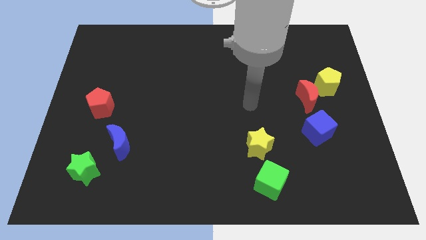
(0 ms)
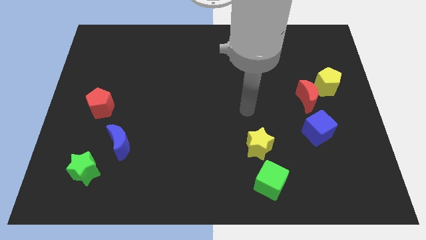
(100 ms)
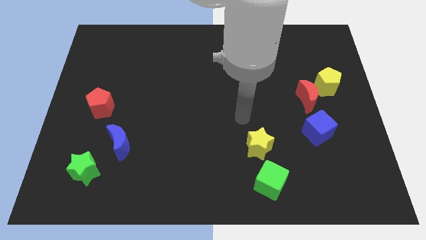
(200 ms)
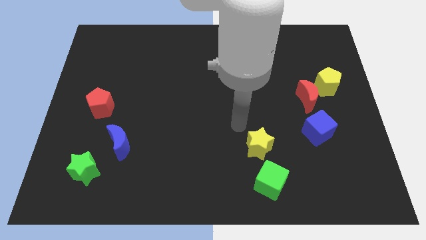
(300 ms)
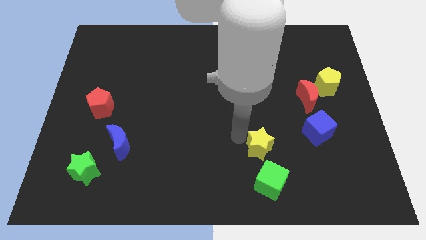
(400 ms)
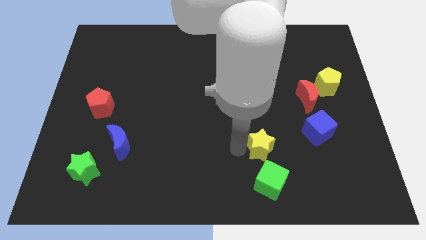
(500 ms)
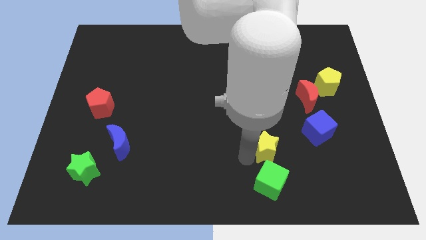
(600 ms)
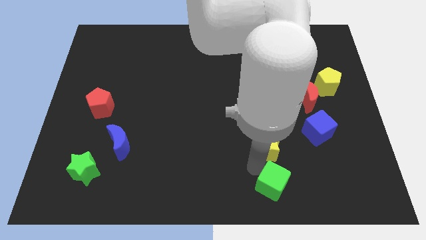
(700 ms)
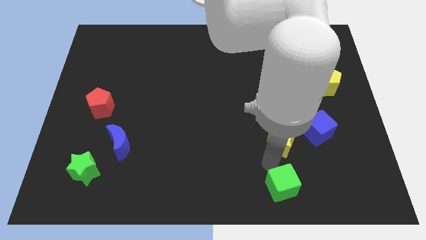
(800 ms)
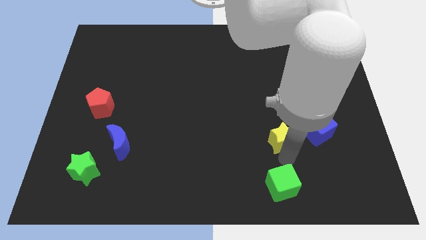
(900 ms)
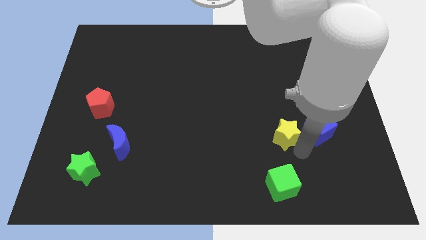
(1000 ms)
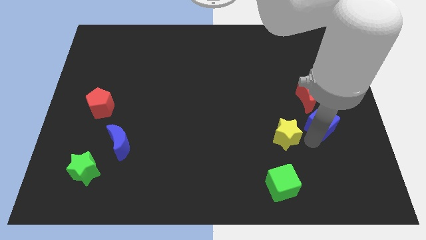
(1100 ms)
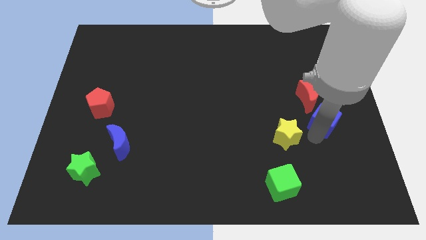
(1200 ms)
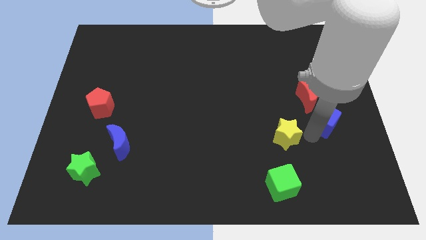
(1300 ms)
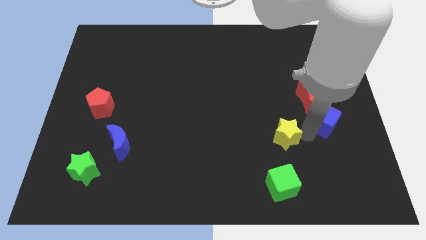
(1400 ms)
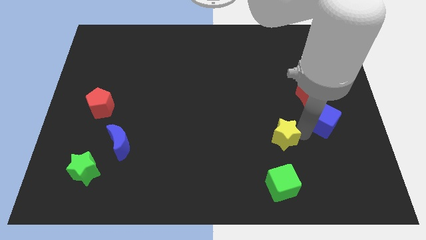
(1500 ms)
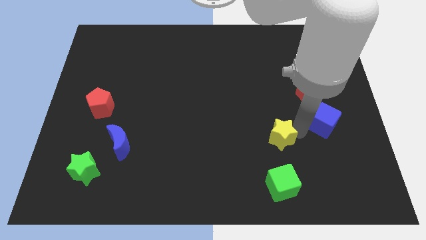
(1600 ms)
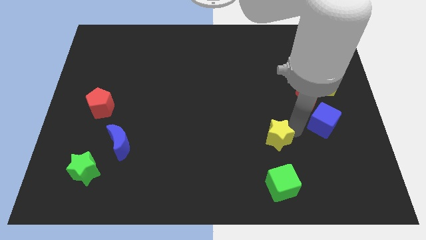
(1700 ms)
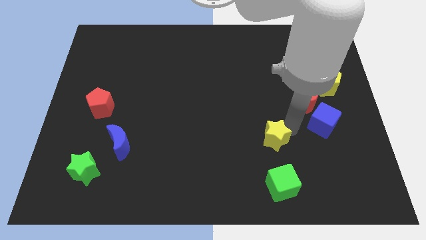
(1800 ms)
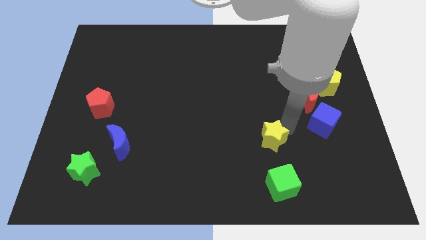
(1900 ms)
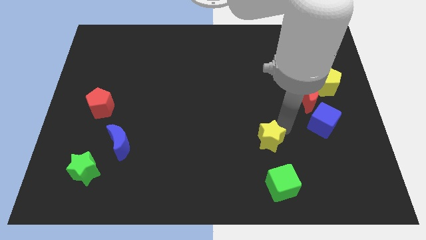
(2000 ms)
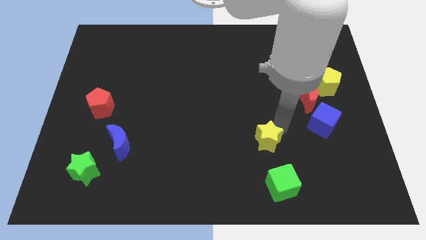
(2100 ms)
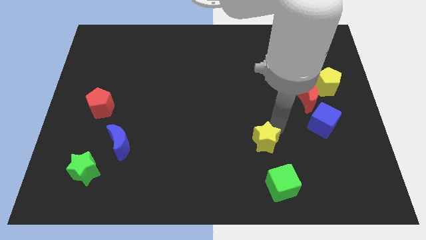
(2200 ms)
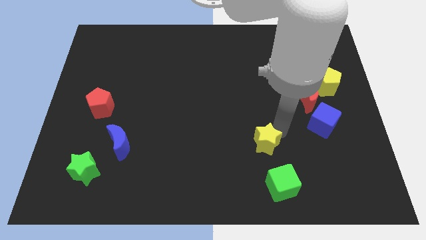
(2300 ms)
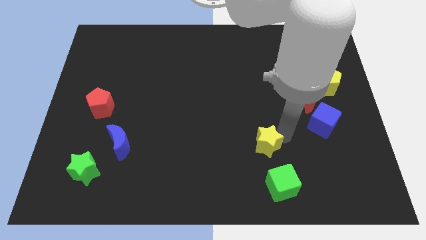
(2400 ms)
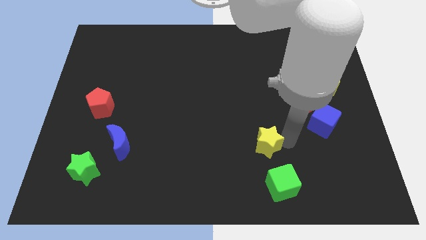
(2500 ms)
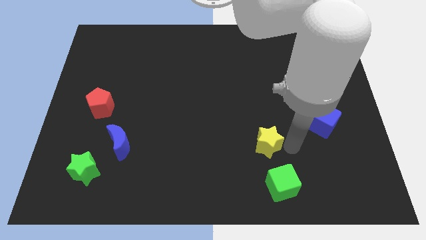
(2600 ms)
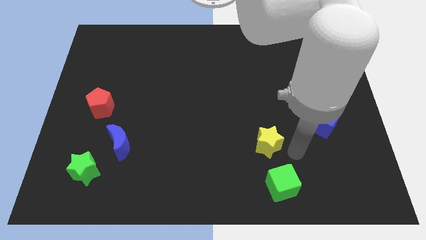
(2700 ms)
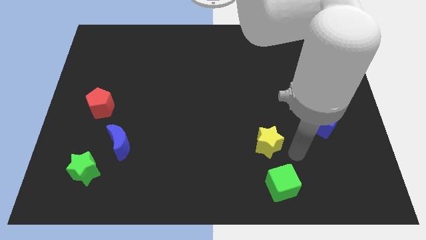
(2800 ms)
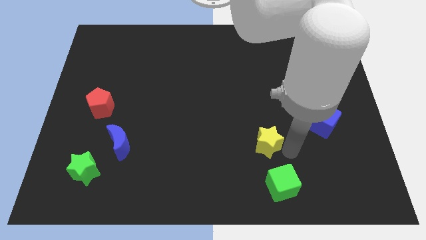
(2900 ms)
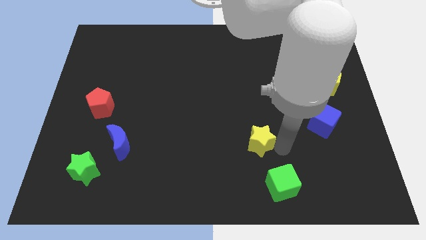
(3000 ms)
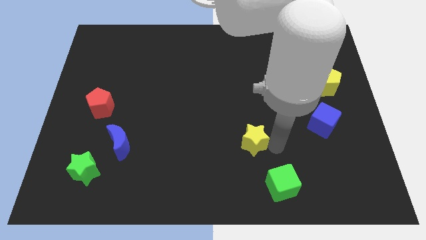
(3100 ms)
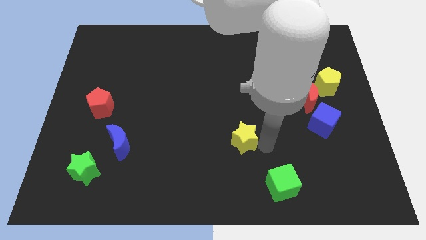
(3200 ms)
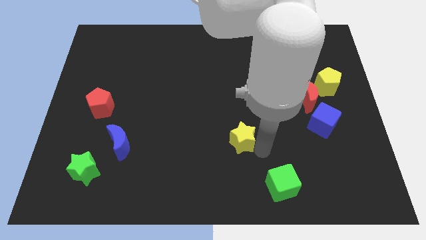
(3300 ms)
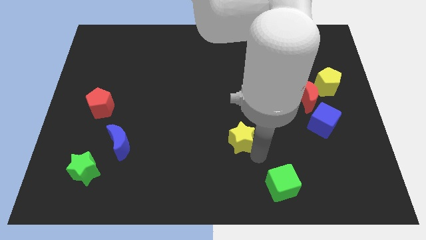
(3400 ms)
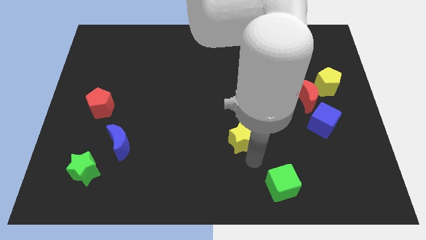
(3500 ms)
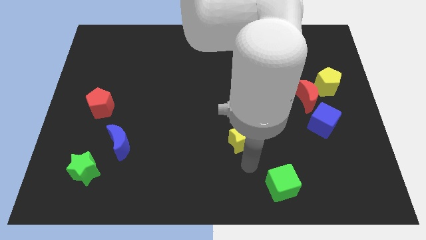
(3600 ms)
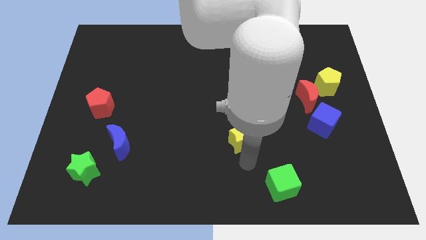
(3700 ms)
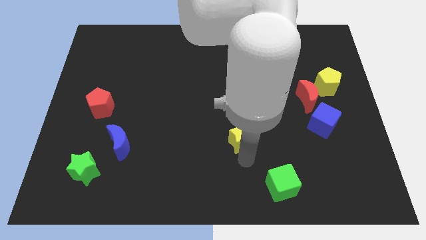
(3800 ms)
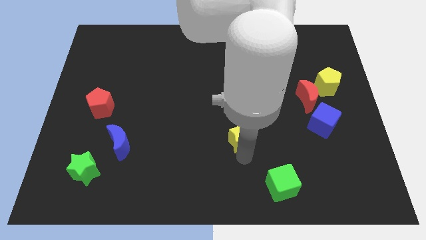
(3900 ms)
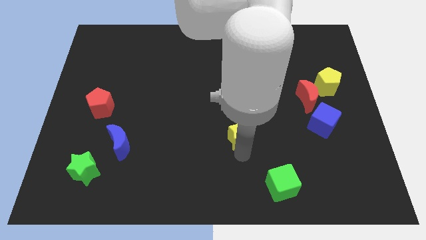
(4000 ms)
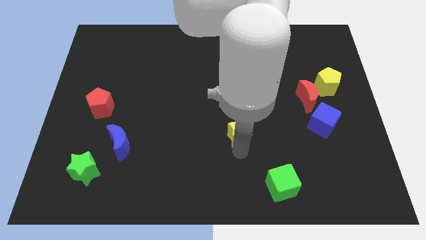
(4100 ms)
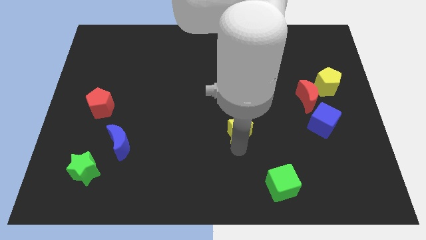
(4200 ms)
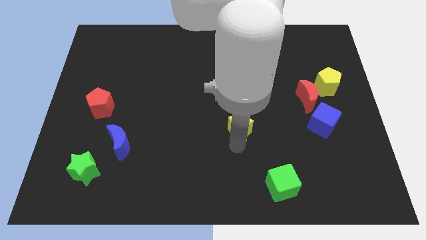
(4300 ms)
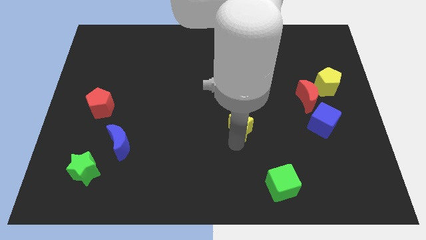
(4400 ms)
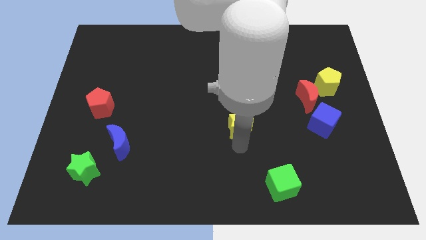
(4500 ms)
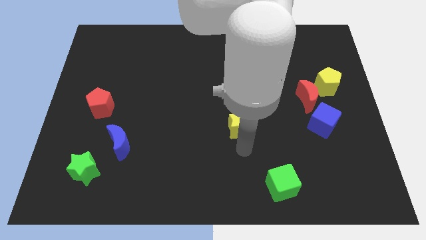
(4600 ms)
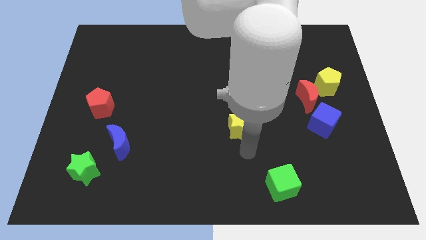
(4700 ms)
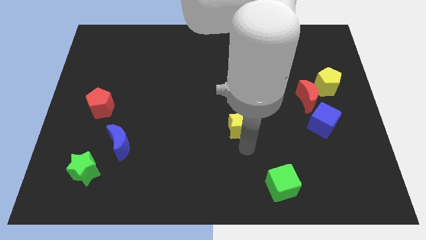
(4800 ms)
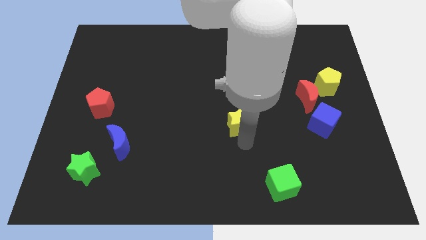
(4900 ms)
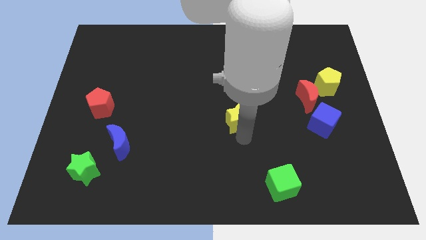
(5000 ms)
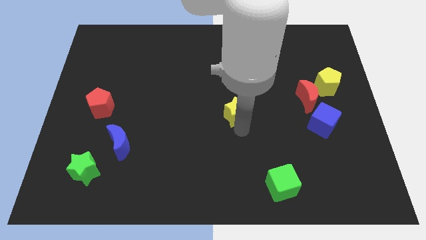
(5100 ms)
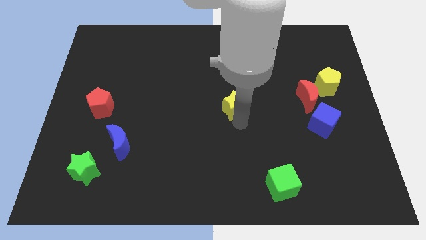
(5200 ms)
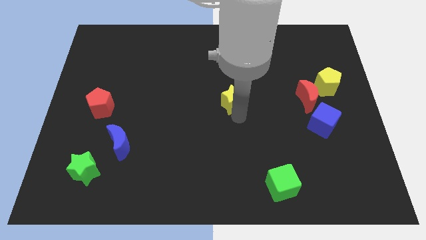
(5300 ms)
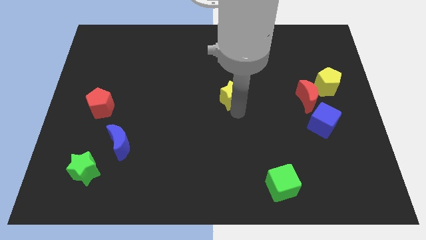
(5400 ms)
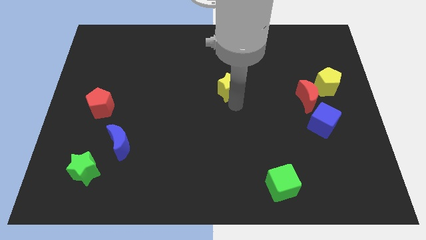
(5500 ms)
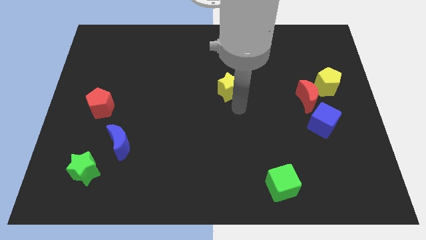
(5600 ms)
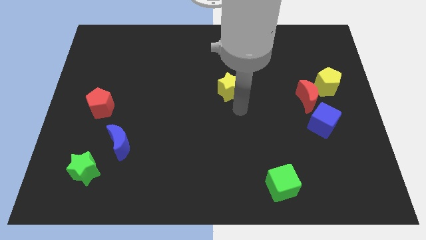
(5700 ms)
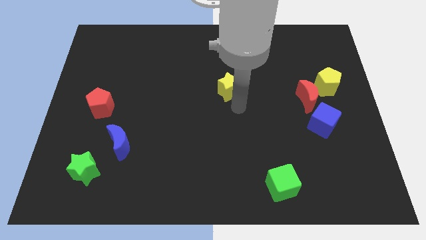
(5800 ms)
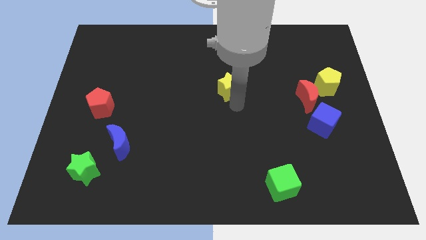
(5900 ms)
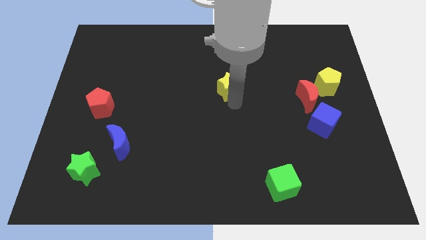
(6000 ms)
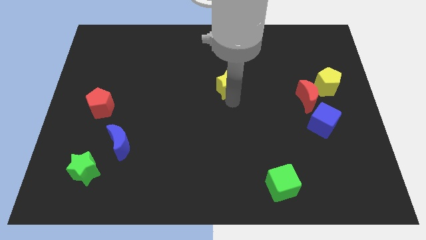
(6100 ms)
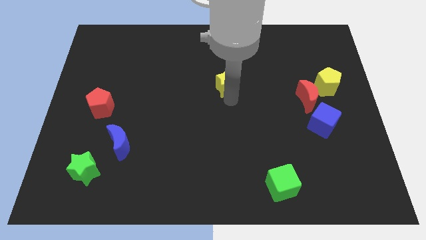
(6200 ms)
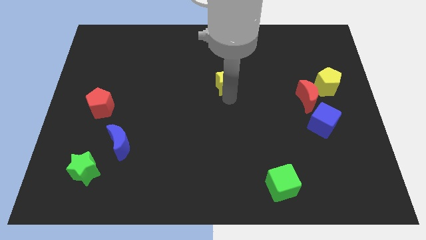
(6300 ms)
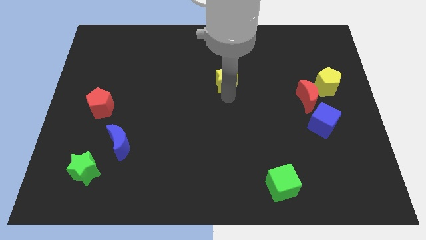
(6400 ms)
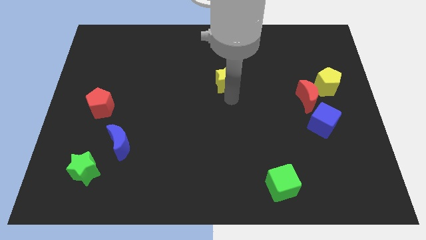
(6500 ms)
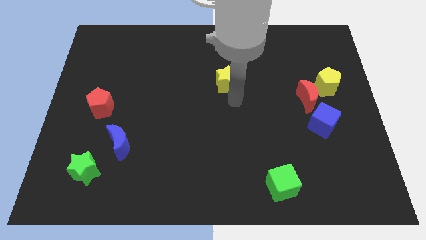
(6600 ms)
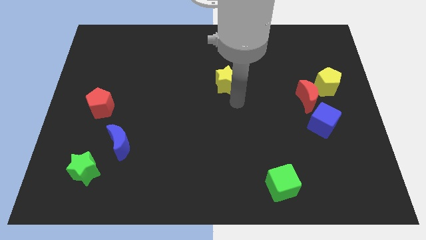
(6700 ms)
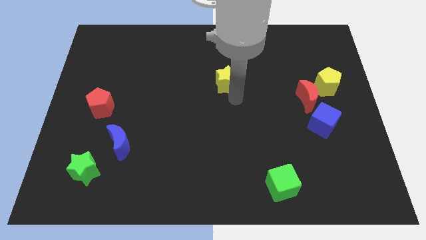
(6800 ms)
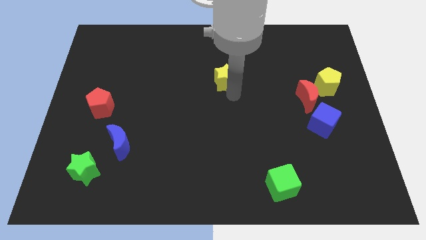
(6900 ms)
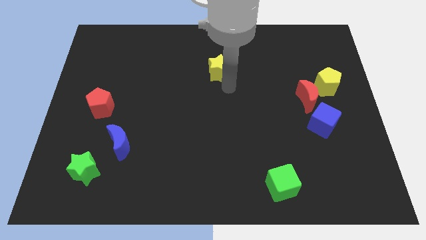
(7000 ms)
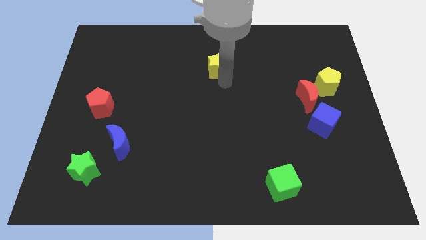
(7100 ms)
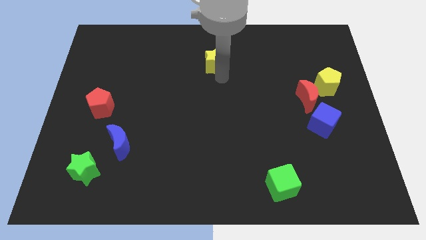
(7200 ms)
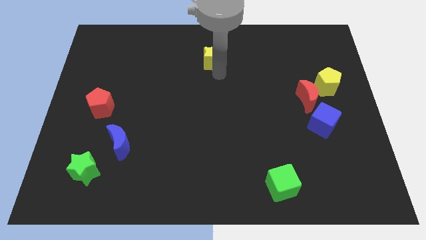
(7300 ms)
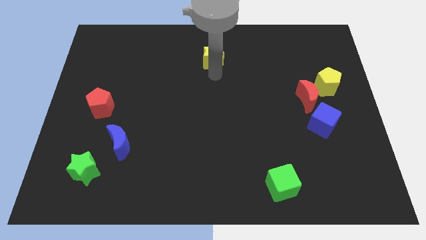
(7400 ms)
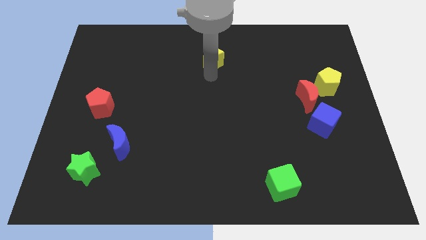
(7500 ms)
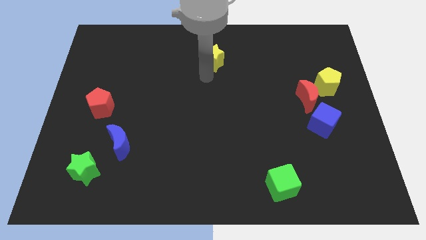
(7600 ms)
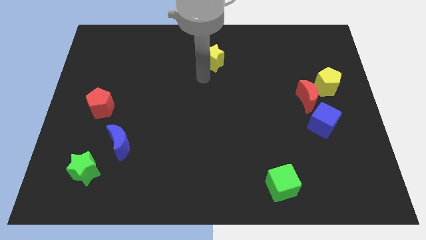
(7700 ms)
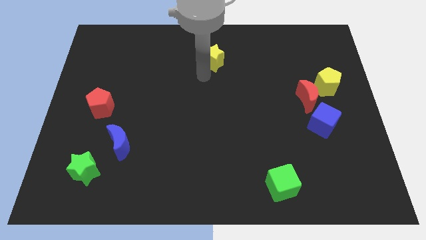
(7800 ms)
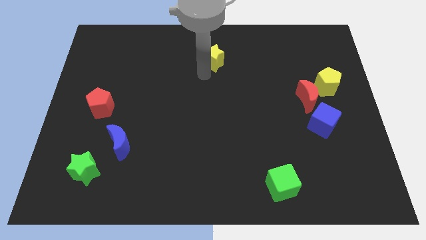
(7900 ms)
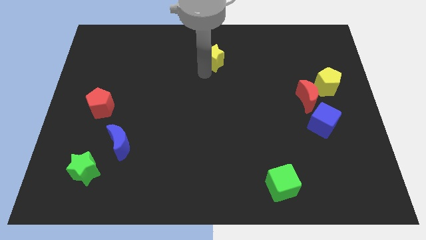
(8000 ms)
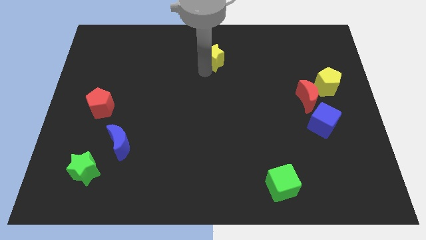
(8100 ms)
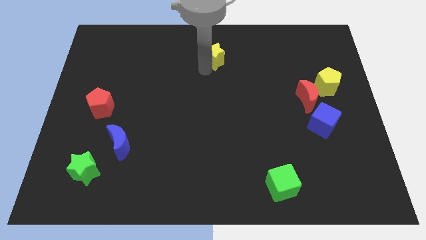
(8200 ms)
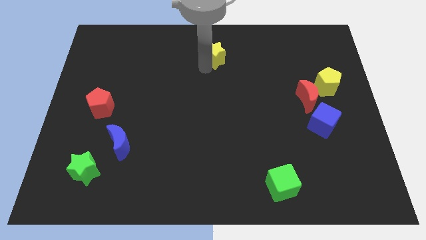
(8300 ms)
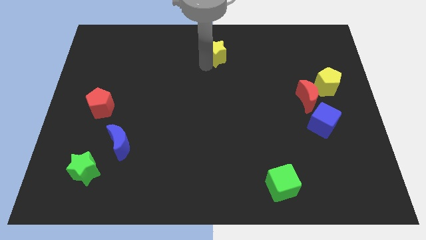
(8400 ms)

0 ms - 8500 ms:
slide the yellow star to the towards your base
